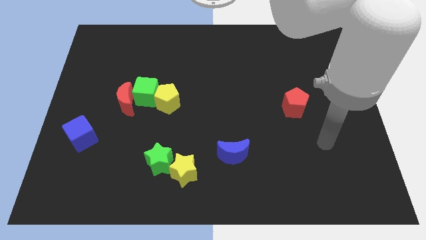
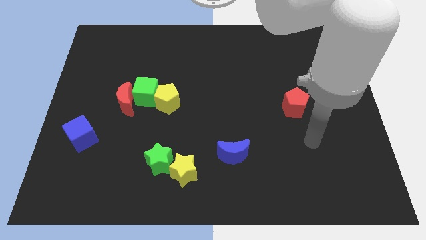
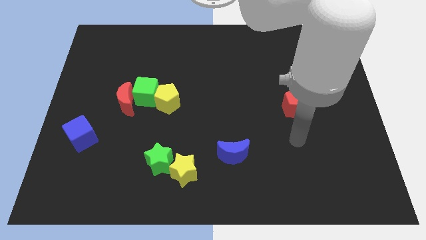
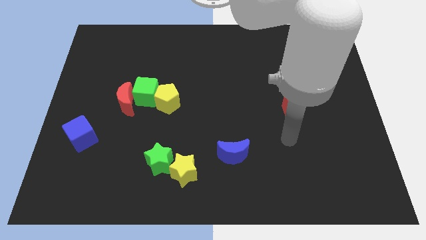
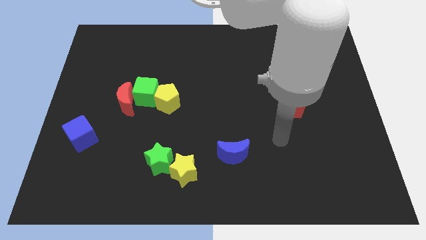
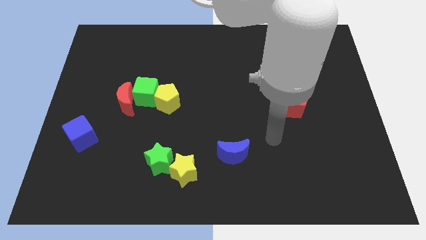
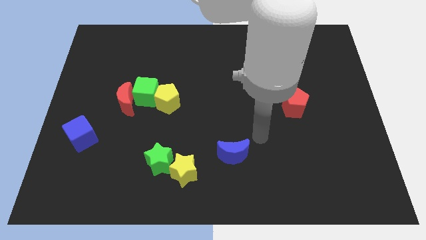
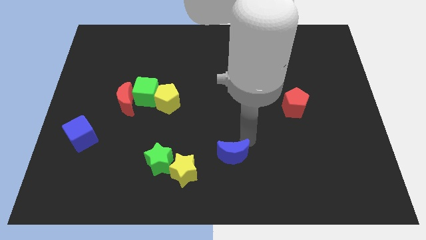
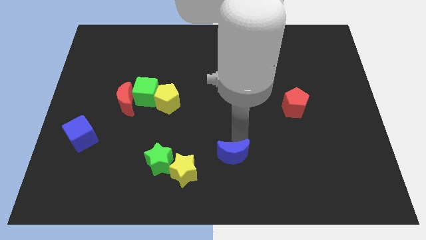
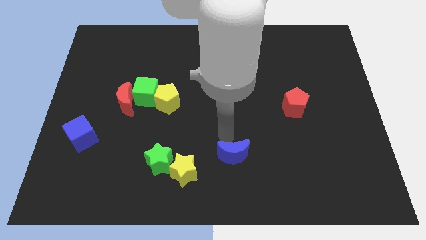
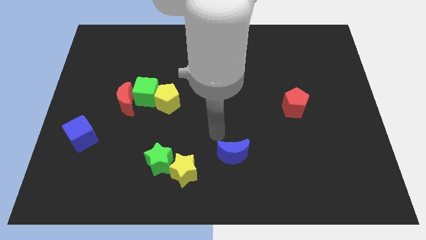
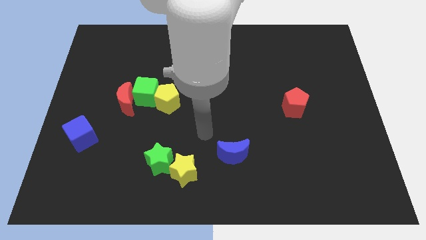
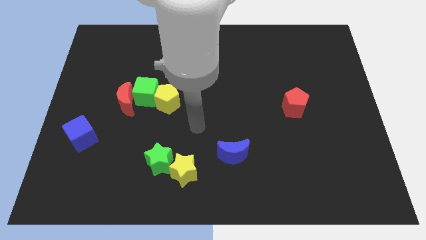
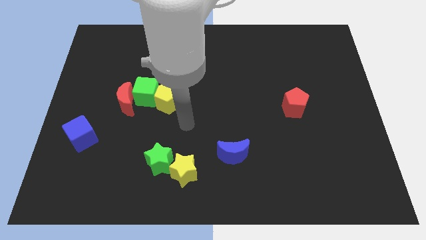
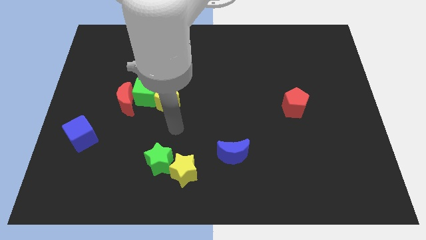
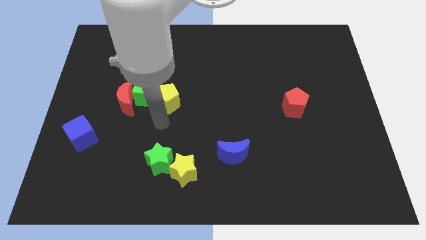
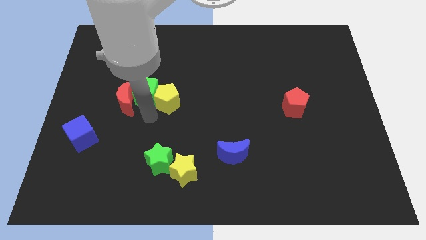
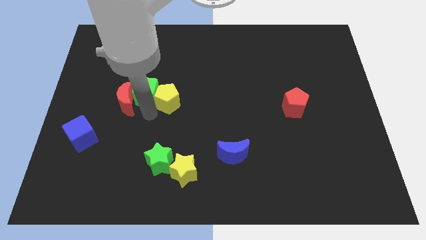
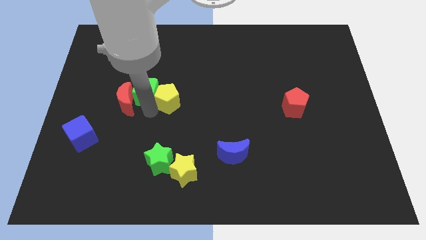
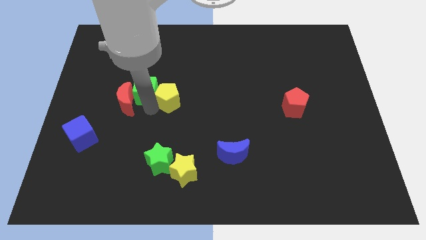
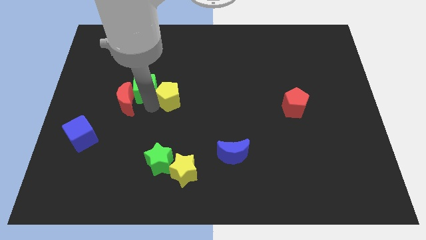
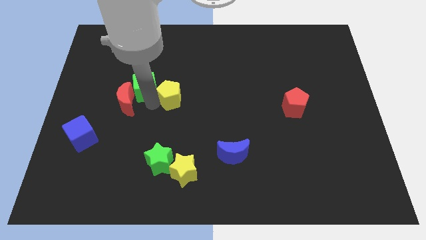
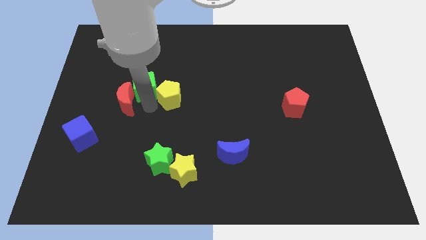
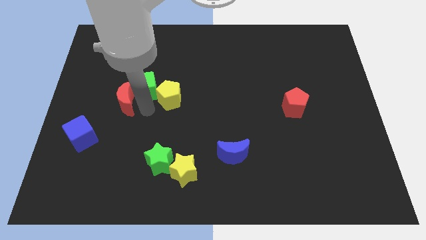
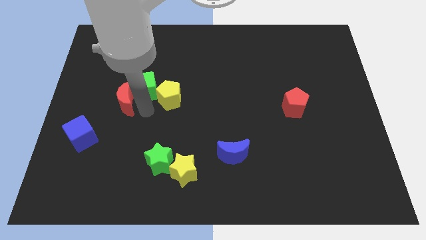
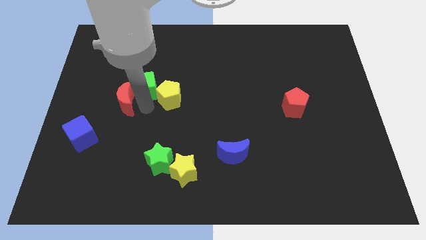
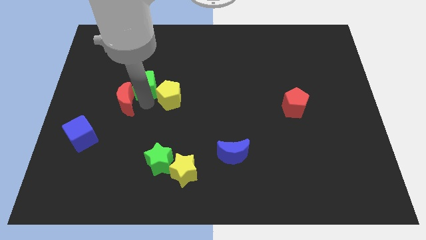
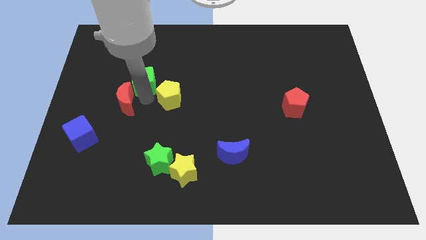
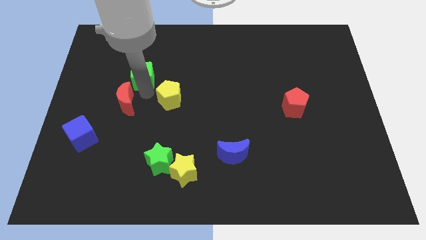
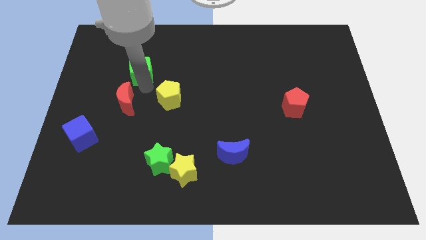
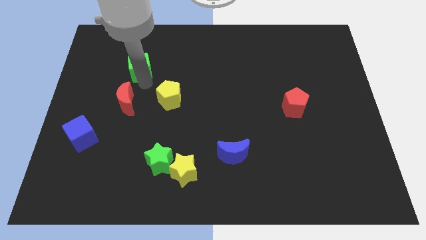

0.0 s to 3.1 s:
move the green cube away from the red moon and yellow pentagon

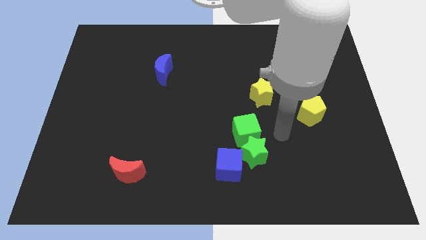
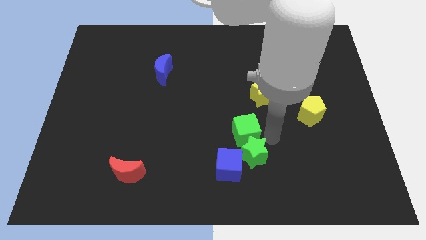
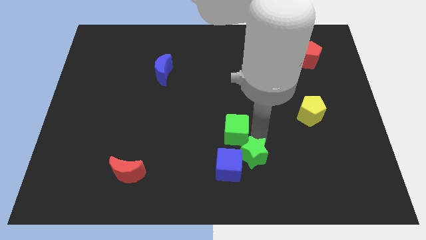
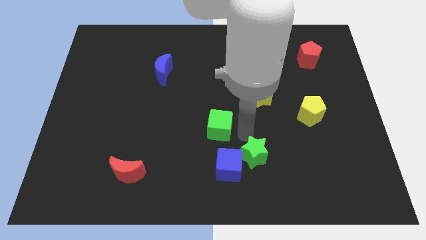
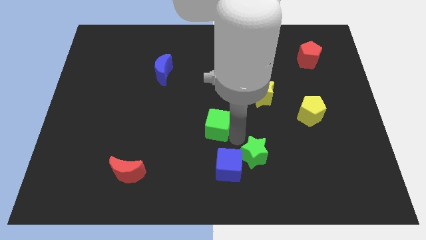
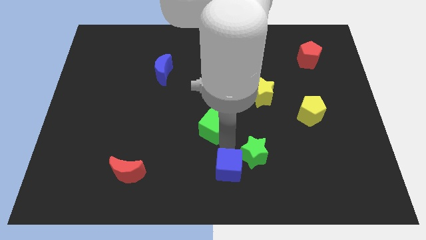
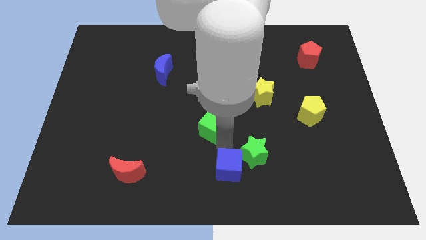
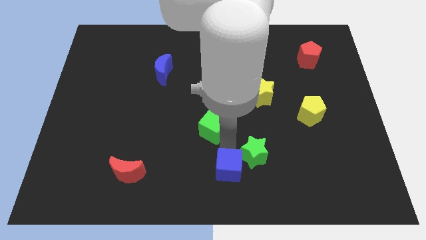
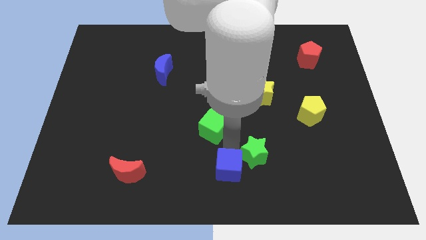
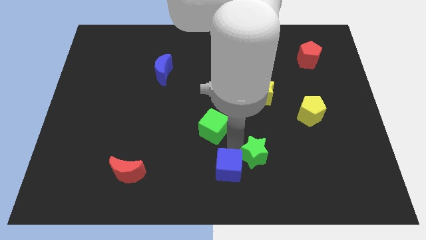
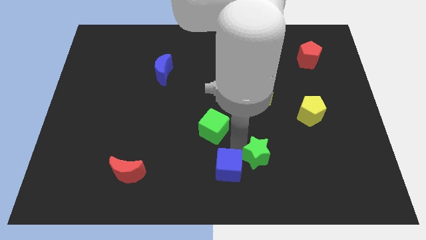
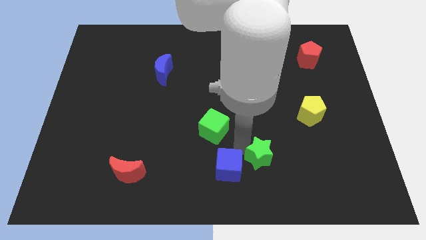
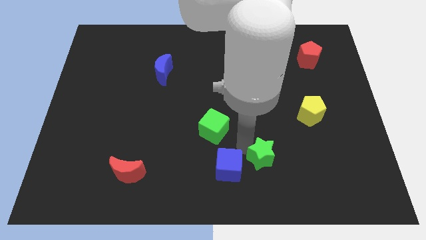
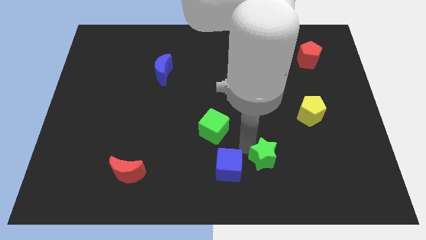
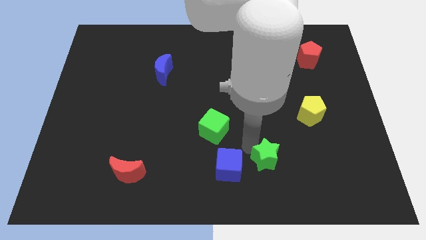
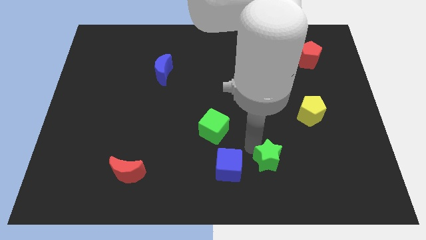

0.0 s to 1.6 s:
separate the green star from the green cube and blue cube

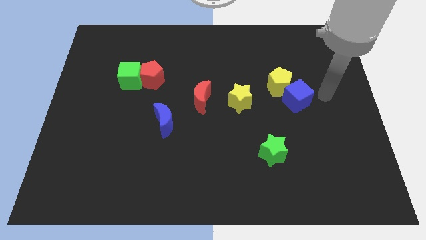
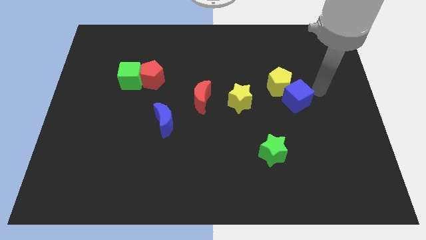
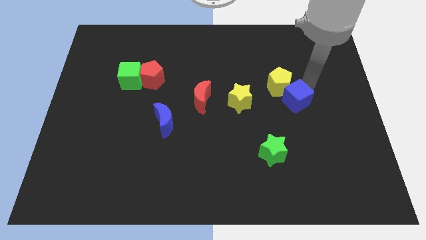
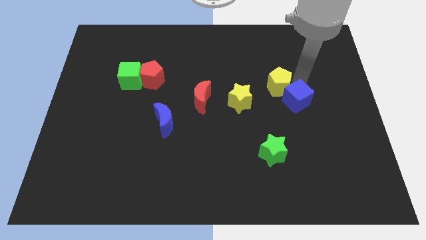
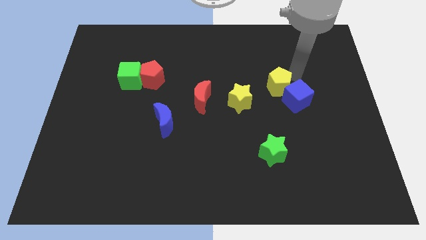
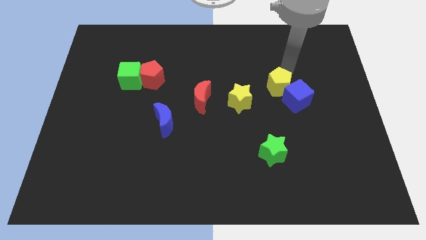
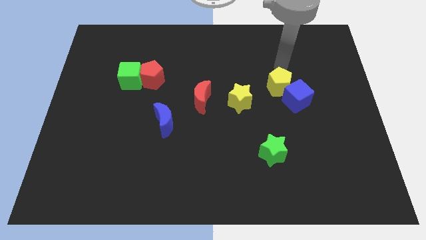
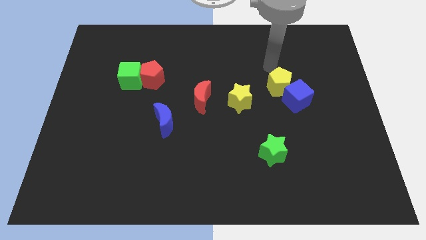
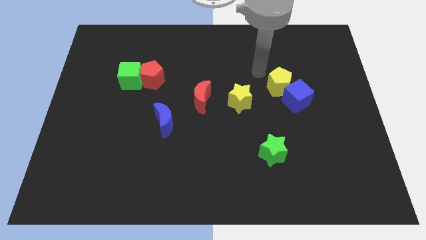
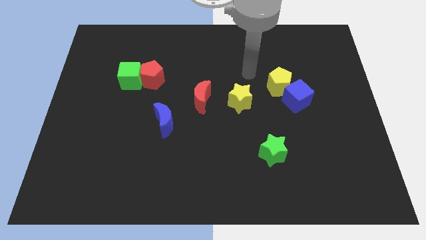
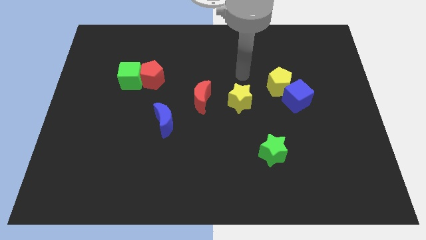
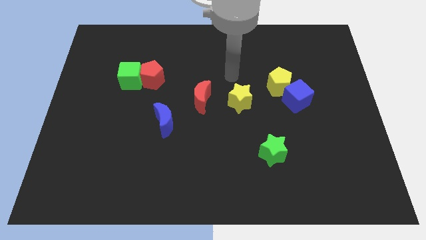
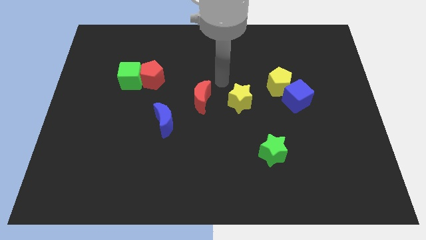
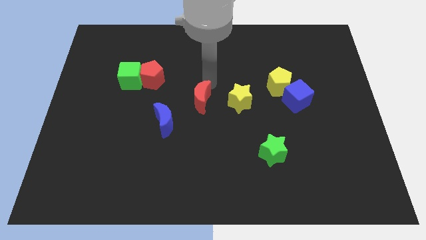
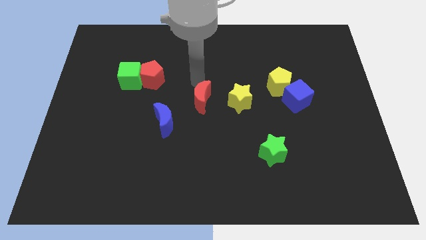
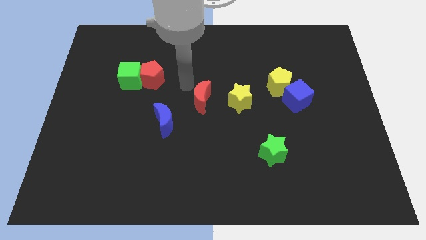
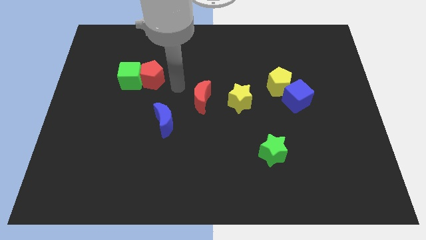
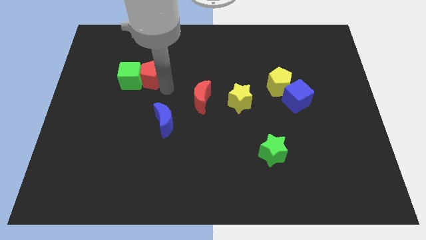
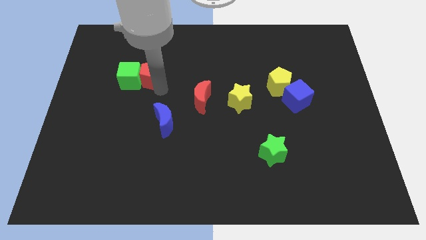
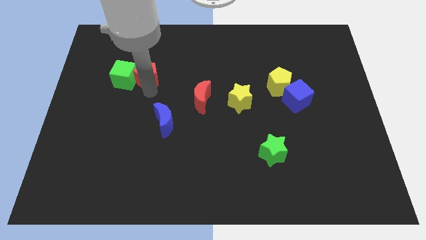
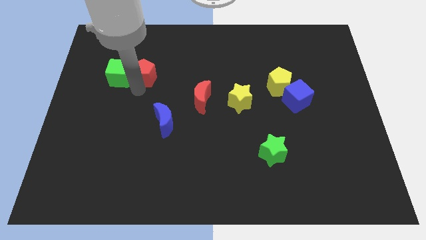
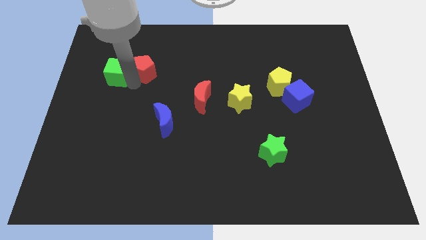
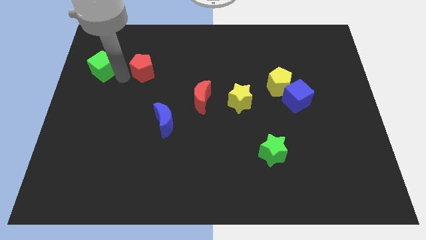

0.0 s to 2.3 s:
pull the red pentagon apart from the green cube

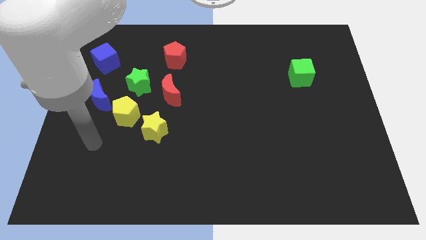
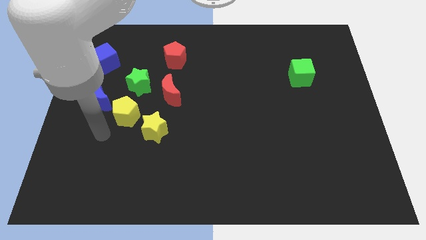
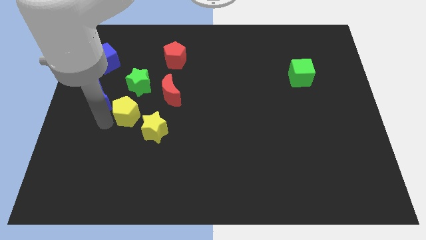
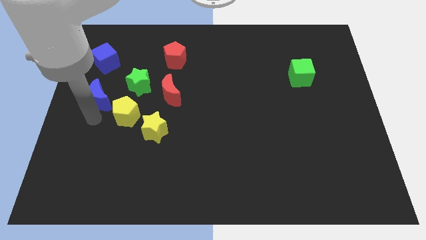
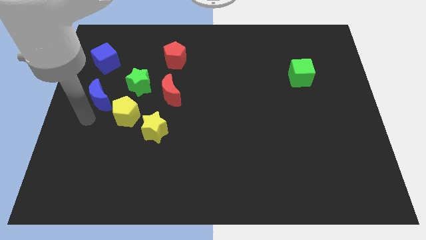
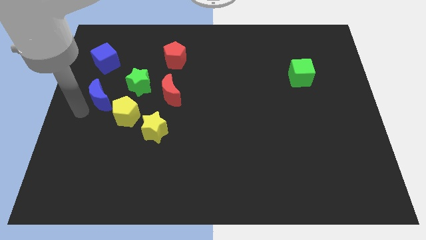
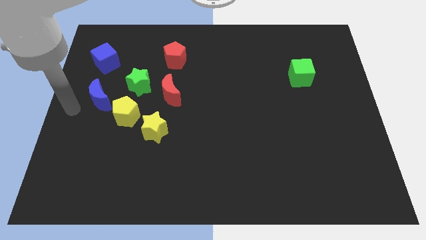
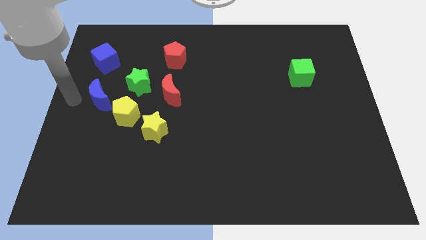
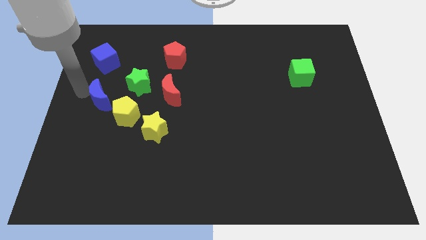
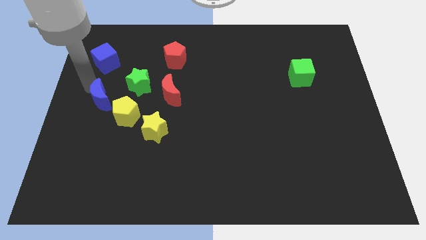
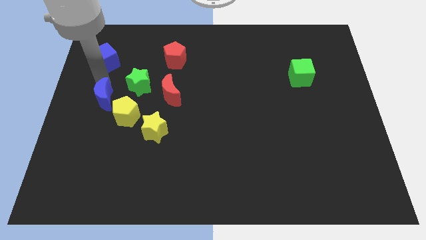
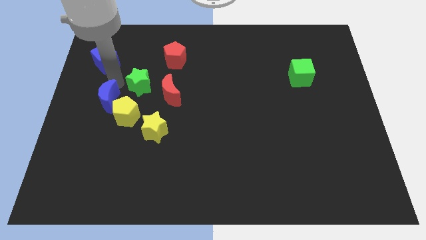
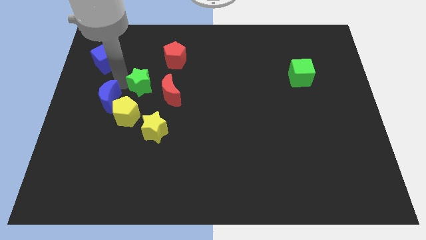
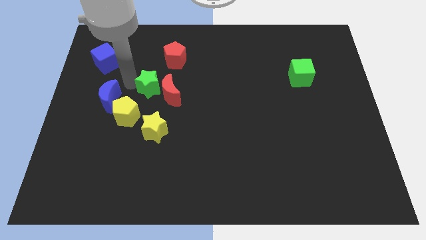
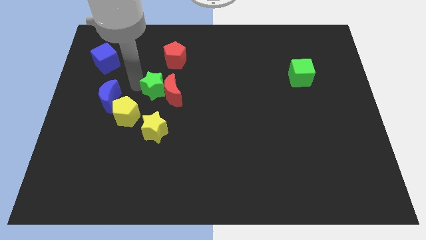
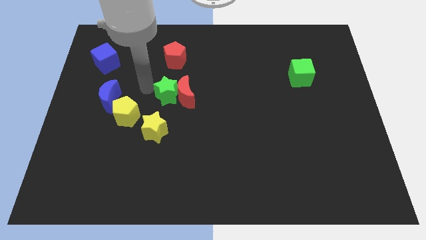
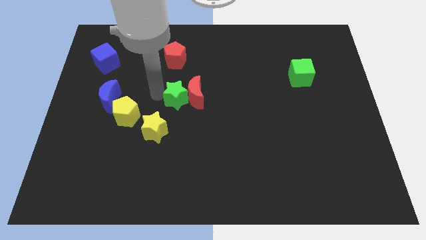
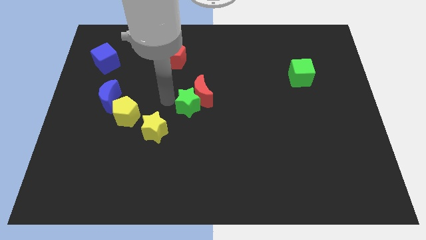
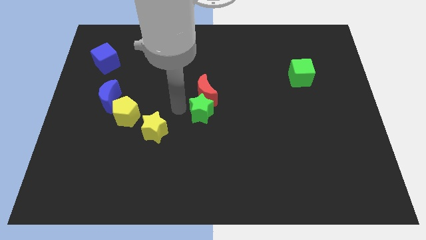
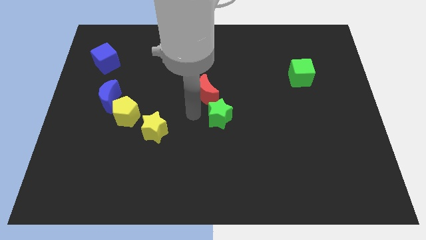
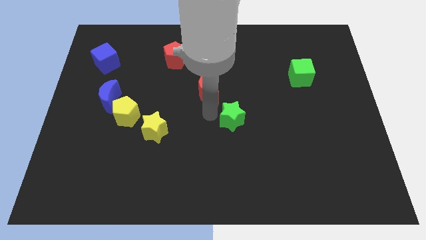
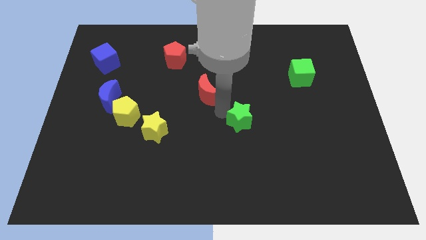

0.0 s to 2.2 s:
separate the red moon from the green star

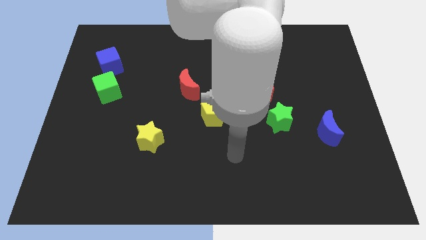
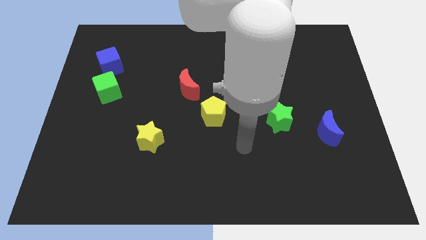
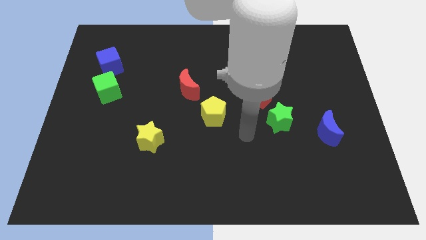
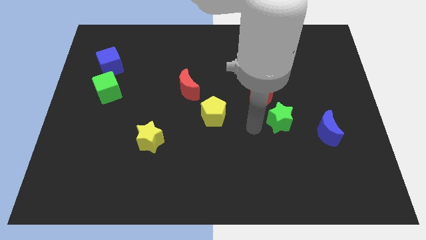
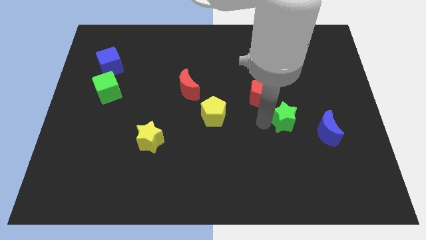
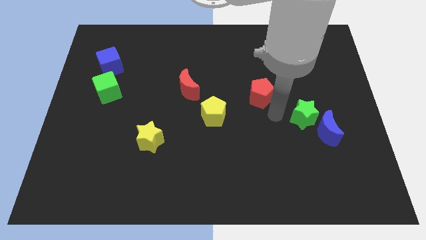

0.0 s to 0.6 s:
move the red pentagon away from the green star
